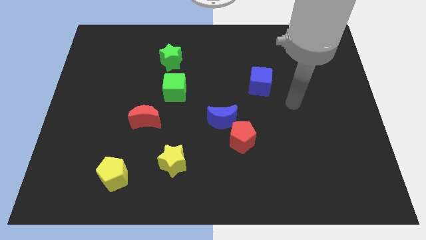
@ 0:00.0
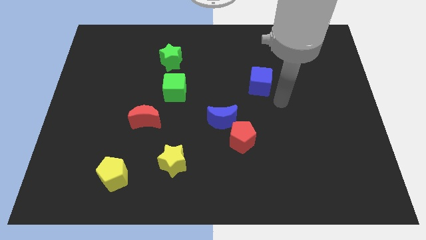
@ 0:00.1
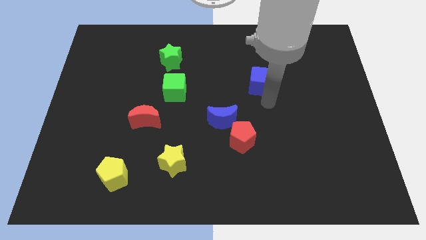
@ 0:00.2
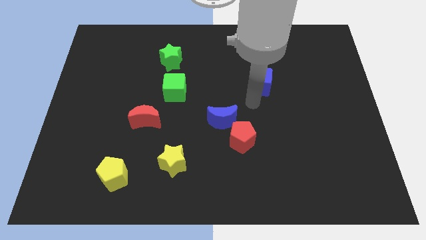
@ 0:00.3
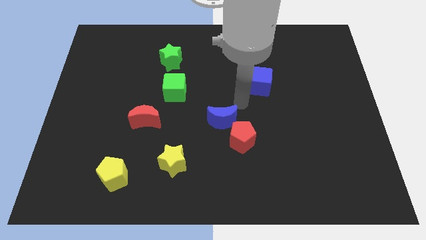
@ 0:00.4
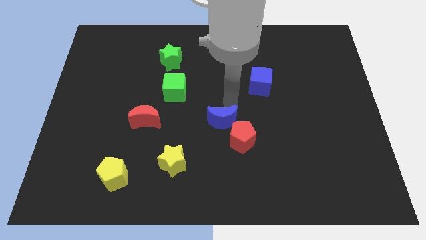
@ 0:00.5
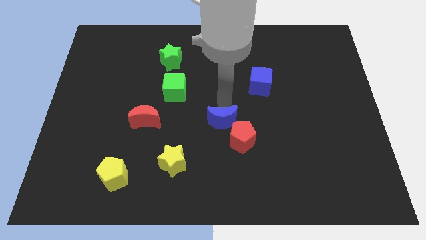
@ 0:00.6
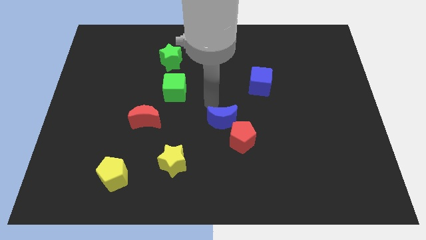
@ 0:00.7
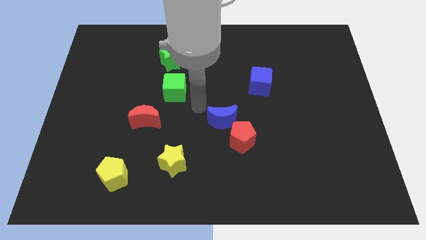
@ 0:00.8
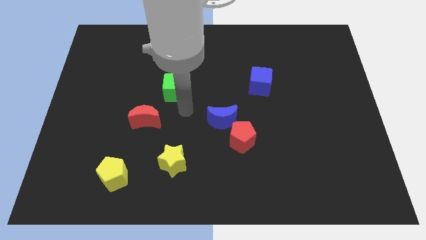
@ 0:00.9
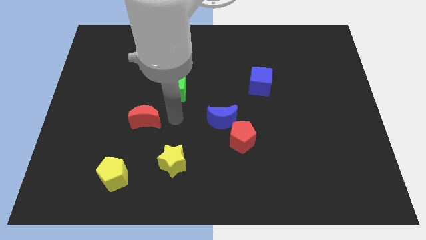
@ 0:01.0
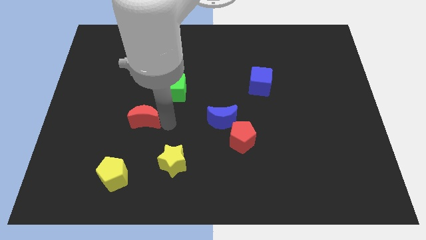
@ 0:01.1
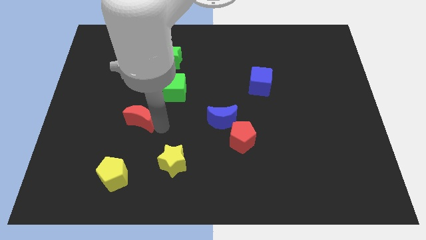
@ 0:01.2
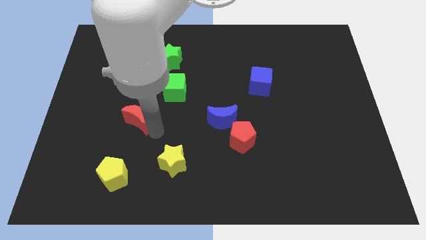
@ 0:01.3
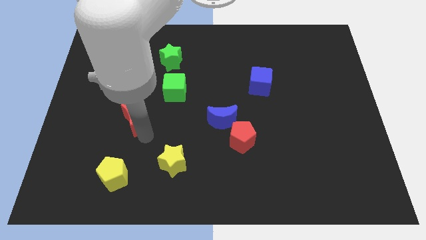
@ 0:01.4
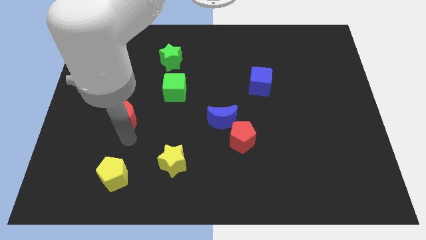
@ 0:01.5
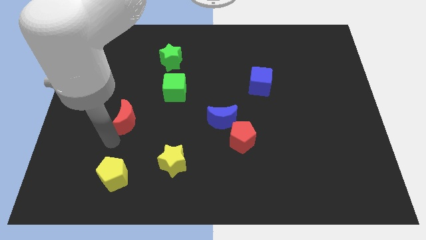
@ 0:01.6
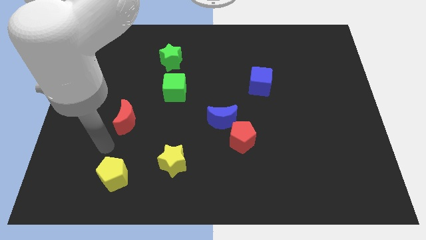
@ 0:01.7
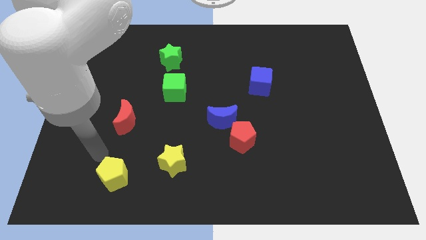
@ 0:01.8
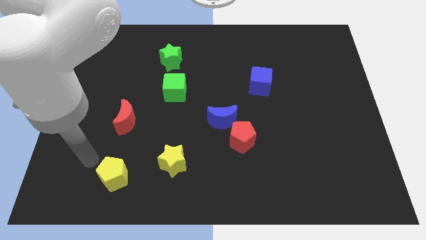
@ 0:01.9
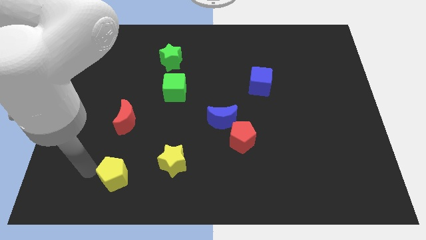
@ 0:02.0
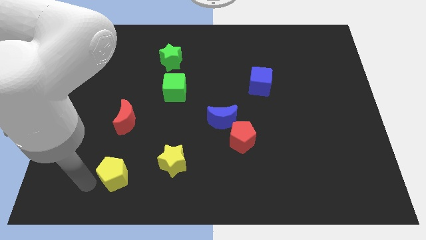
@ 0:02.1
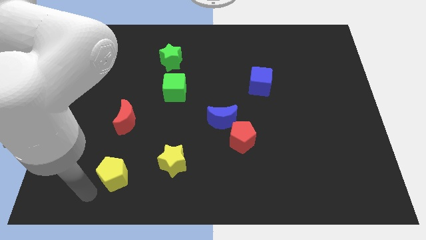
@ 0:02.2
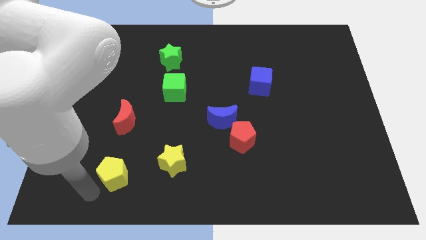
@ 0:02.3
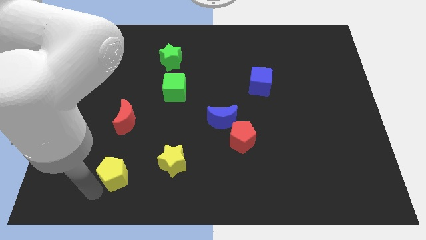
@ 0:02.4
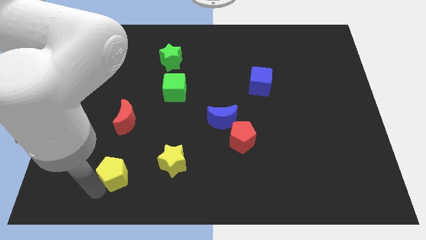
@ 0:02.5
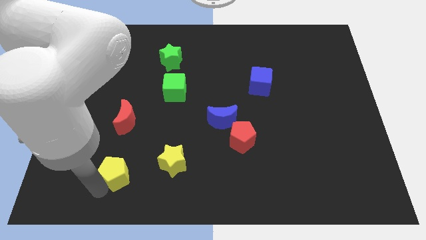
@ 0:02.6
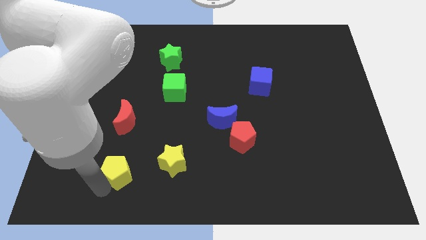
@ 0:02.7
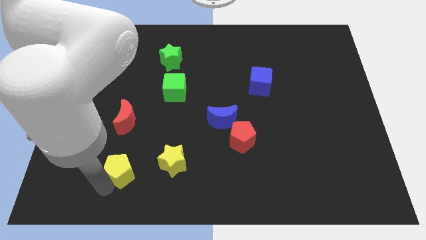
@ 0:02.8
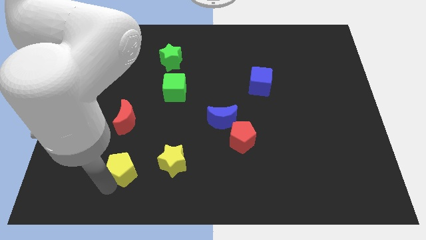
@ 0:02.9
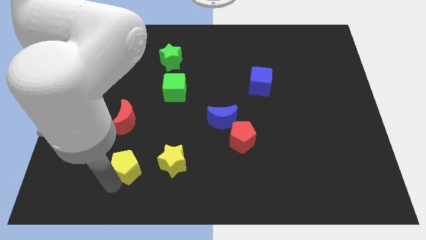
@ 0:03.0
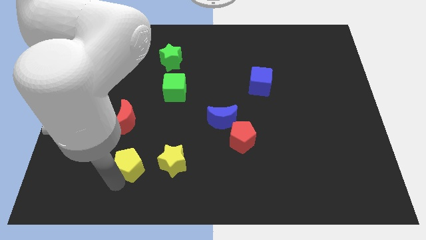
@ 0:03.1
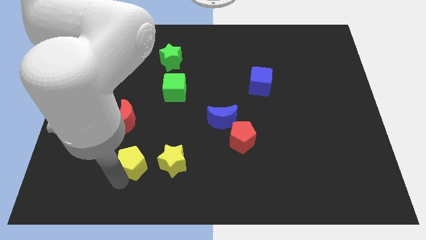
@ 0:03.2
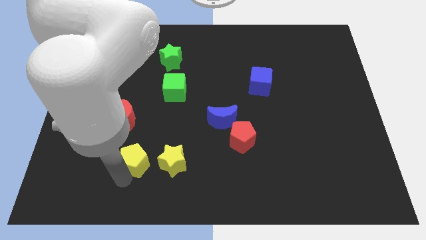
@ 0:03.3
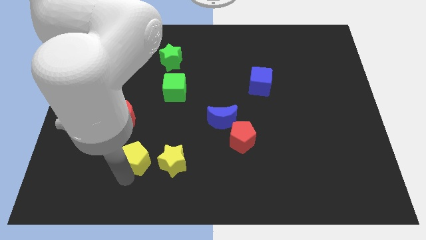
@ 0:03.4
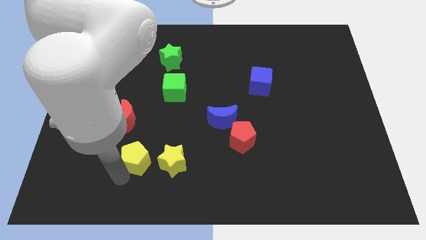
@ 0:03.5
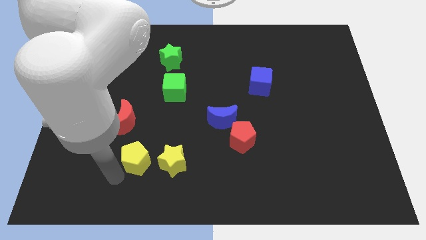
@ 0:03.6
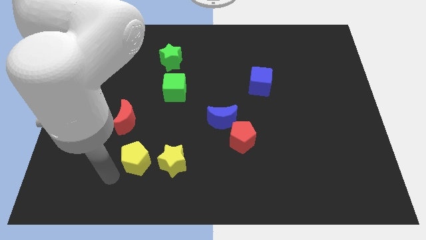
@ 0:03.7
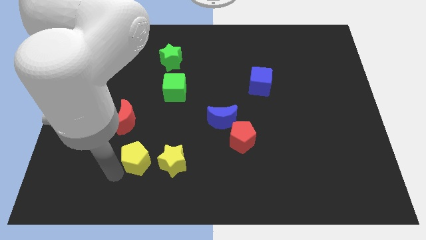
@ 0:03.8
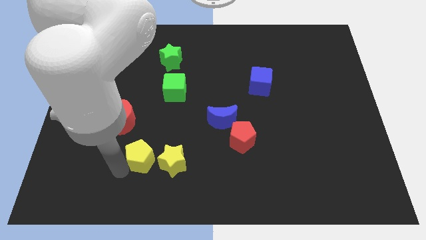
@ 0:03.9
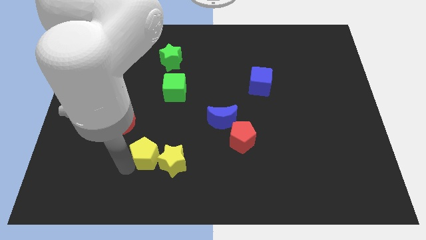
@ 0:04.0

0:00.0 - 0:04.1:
push the yellow pentagon up and then to the right a bit

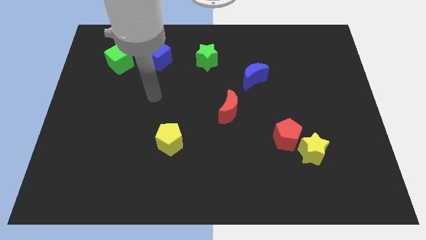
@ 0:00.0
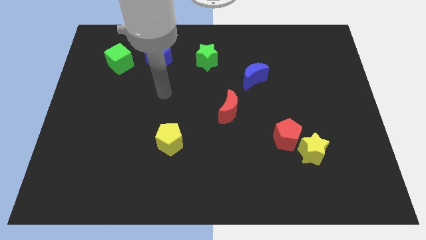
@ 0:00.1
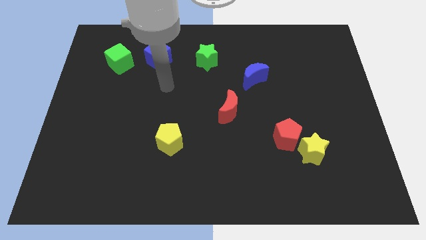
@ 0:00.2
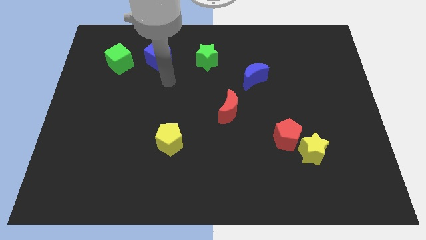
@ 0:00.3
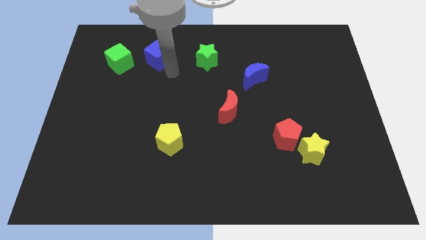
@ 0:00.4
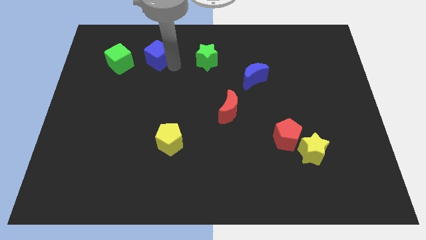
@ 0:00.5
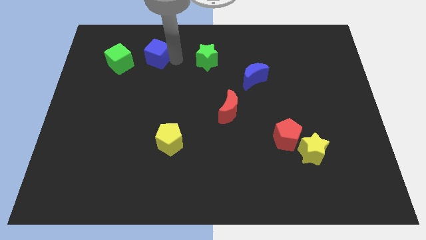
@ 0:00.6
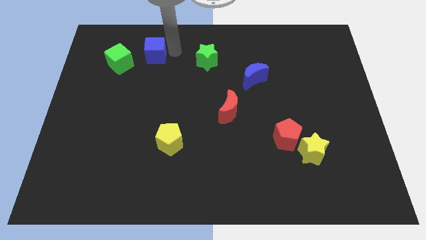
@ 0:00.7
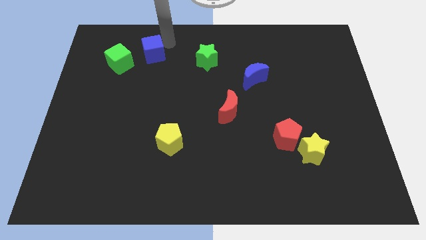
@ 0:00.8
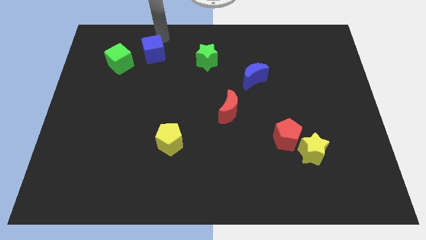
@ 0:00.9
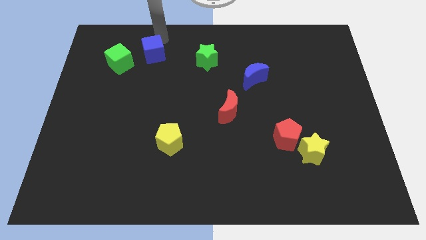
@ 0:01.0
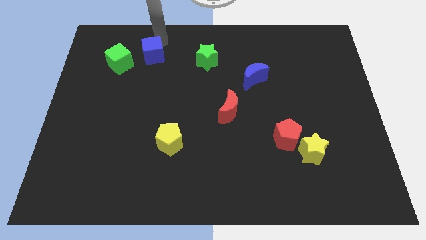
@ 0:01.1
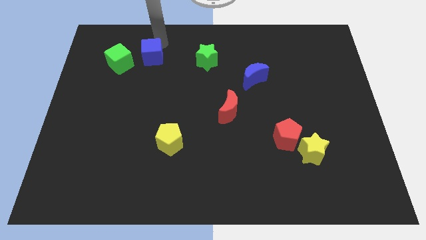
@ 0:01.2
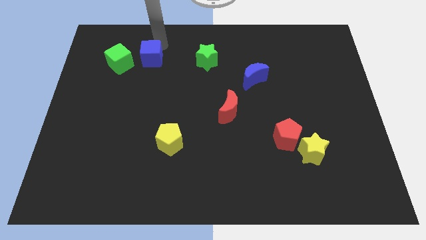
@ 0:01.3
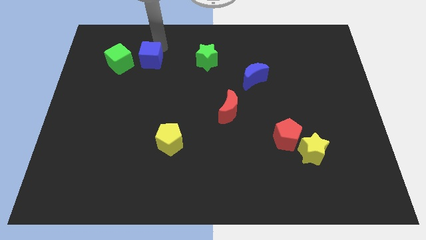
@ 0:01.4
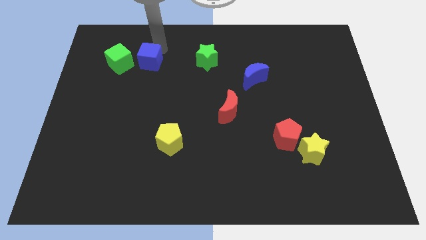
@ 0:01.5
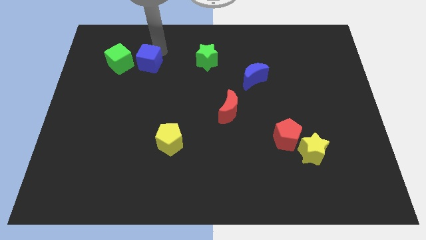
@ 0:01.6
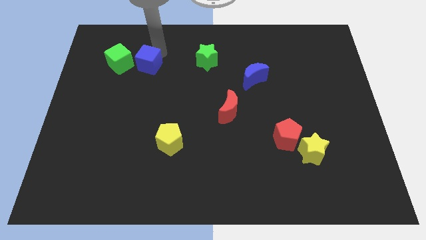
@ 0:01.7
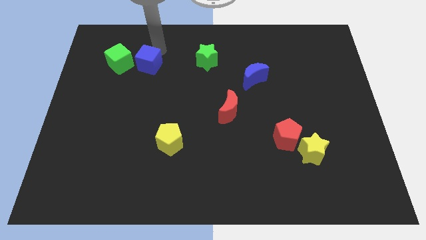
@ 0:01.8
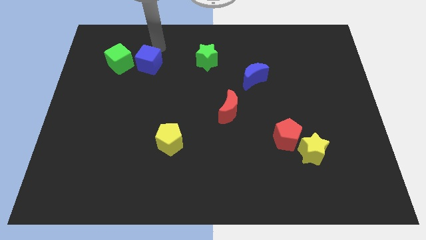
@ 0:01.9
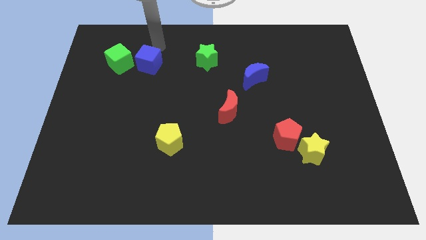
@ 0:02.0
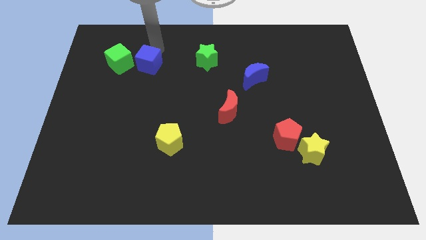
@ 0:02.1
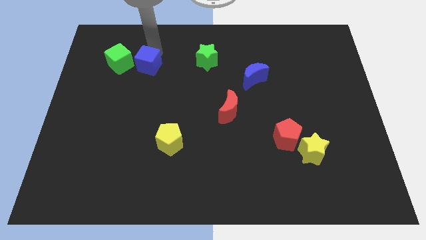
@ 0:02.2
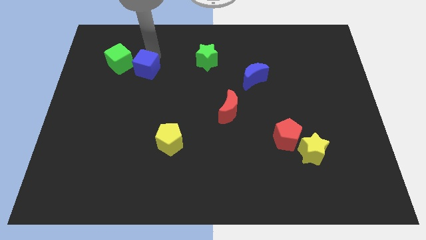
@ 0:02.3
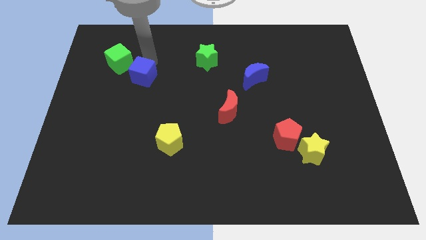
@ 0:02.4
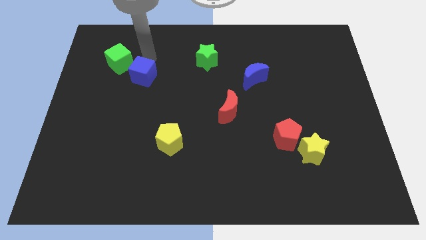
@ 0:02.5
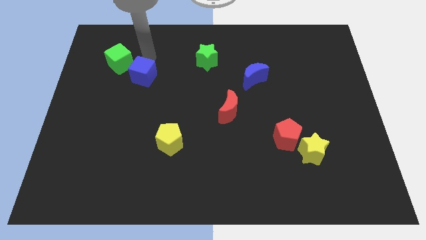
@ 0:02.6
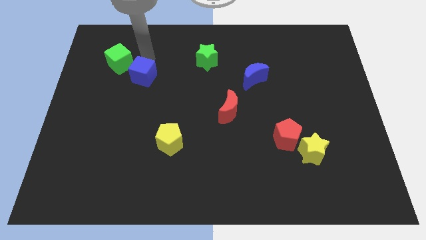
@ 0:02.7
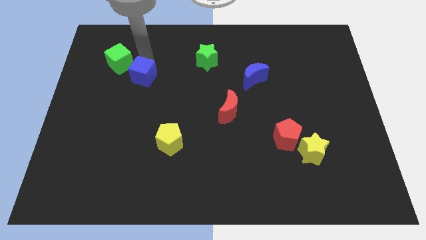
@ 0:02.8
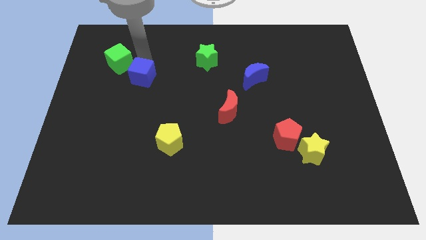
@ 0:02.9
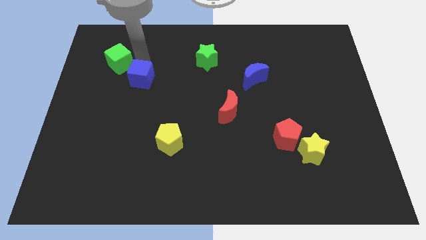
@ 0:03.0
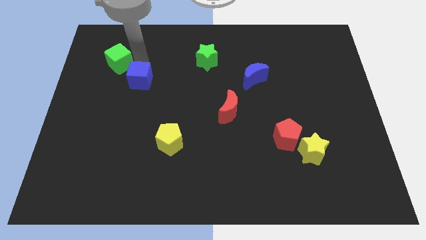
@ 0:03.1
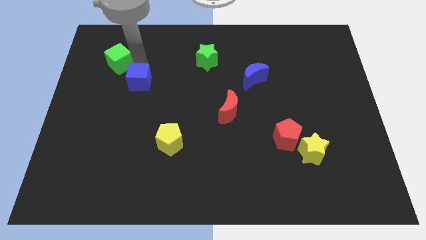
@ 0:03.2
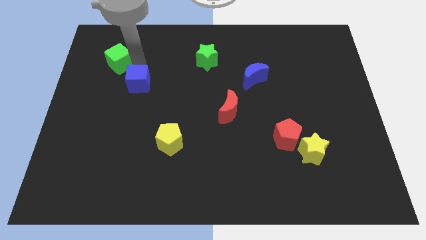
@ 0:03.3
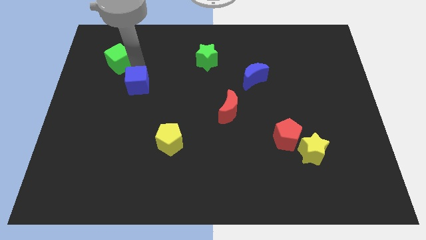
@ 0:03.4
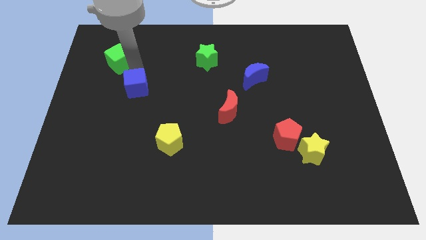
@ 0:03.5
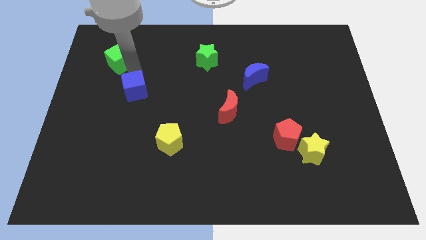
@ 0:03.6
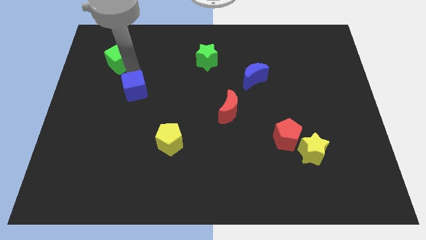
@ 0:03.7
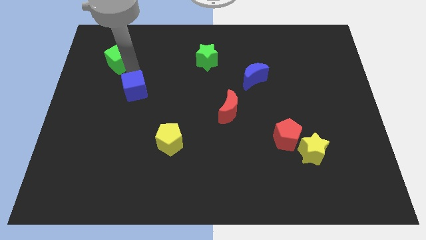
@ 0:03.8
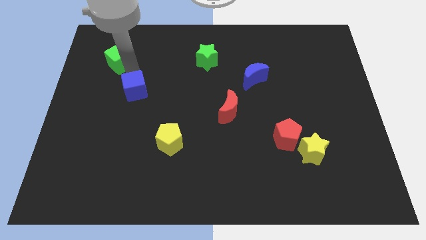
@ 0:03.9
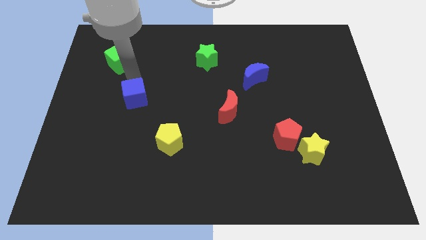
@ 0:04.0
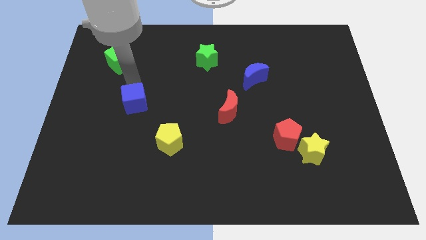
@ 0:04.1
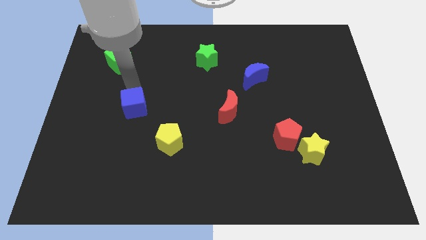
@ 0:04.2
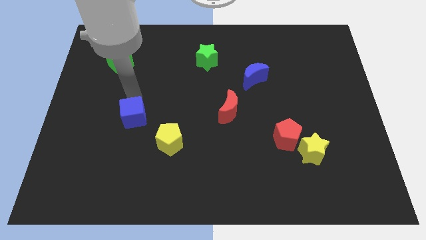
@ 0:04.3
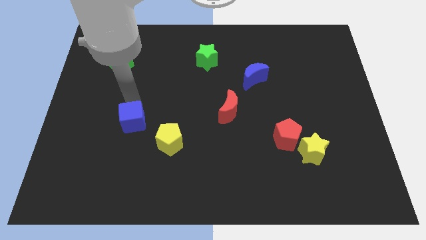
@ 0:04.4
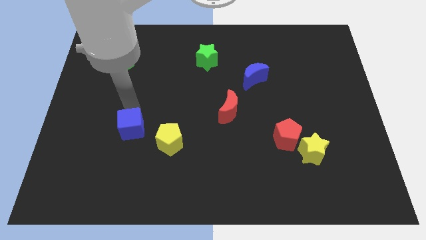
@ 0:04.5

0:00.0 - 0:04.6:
slide the blue cube downwards

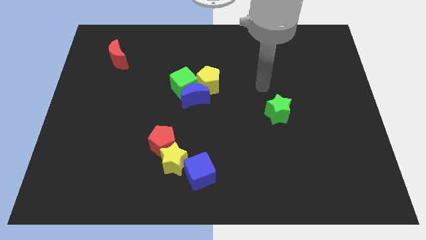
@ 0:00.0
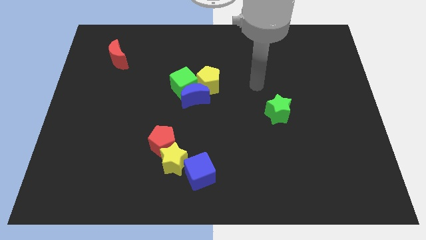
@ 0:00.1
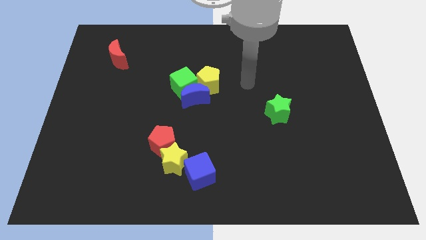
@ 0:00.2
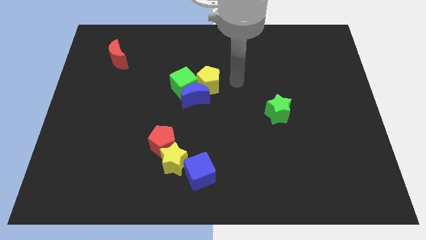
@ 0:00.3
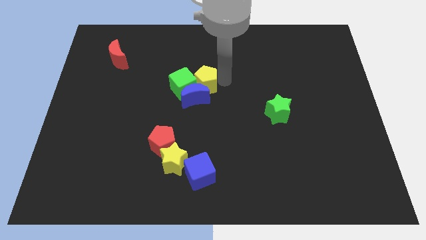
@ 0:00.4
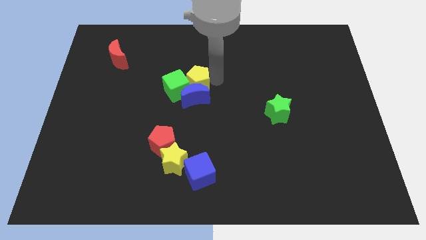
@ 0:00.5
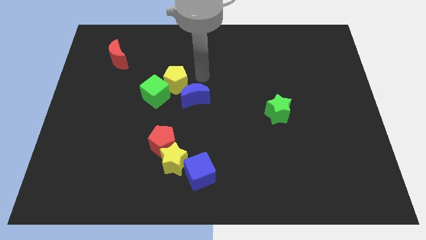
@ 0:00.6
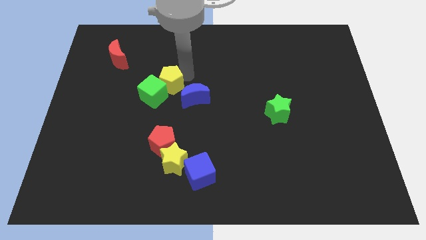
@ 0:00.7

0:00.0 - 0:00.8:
slightly push the green cube down and then to the left
